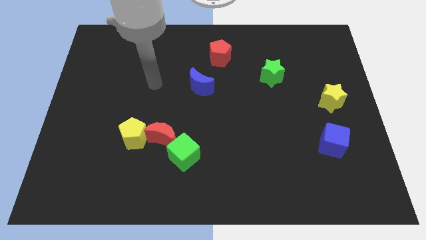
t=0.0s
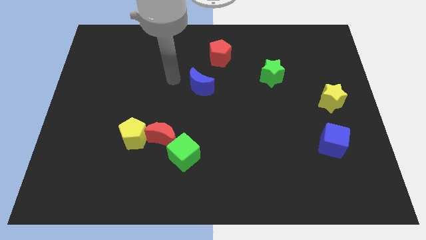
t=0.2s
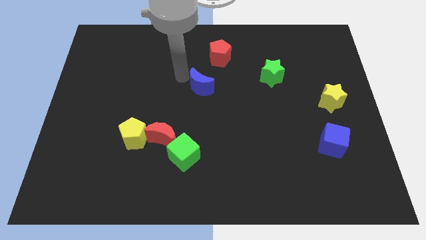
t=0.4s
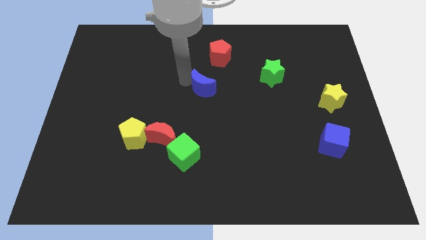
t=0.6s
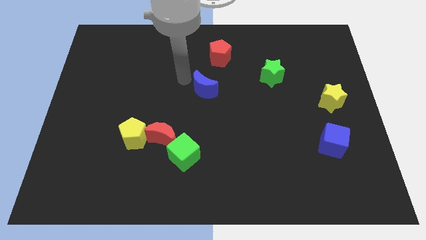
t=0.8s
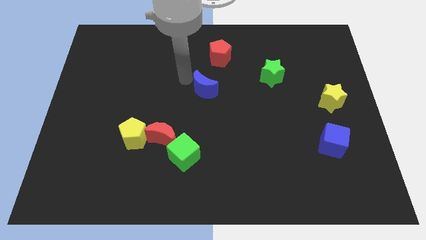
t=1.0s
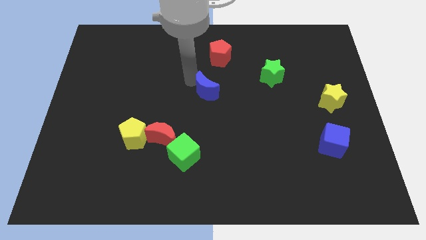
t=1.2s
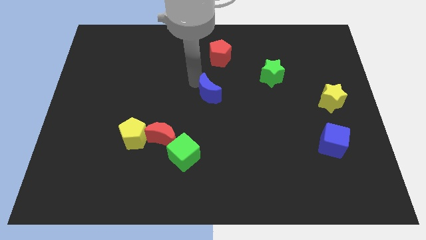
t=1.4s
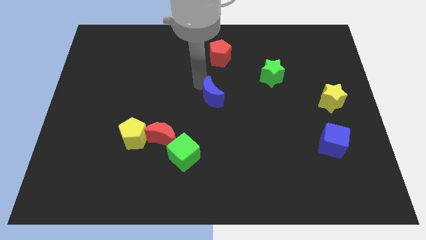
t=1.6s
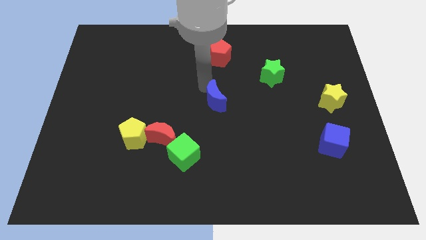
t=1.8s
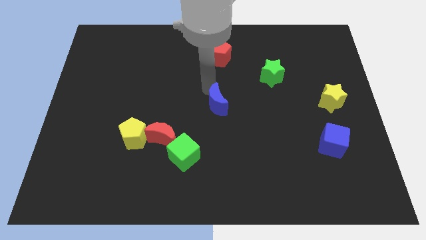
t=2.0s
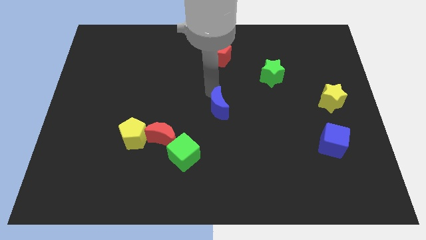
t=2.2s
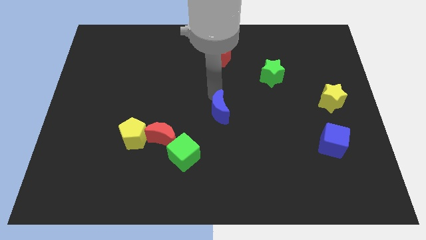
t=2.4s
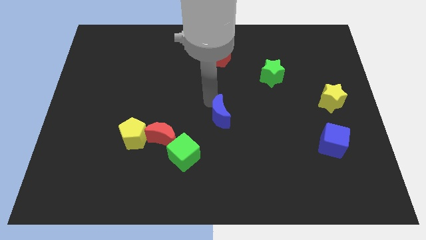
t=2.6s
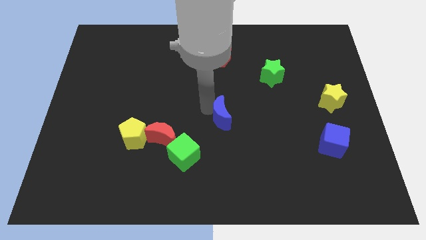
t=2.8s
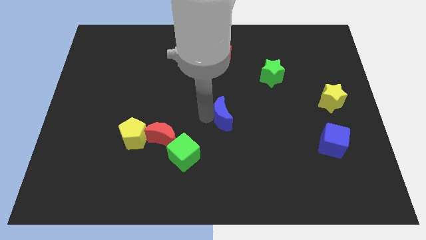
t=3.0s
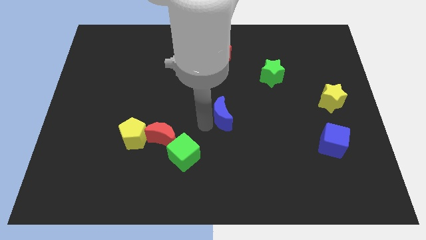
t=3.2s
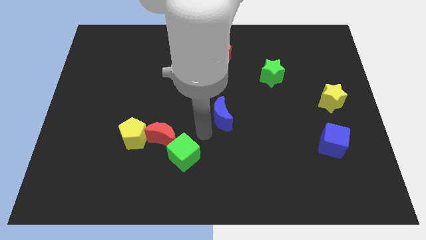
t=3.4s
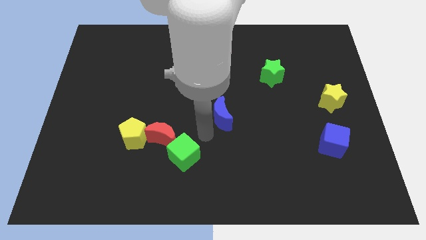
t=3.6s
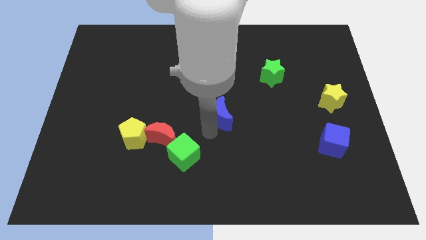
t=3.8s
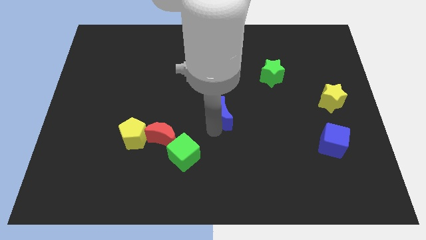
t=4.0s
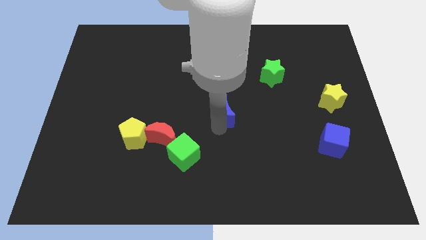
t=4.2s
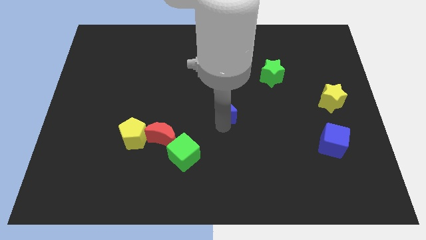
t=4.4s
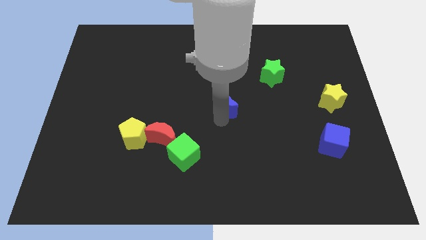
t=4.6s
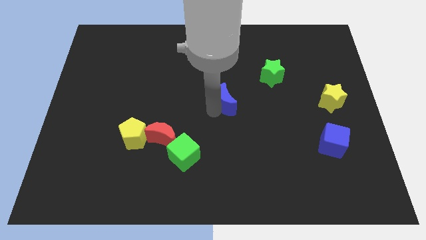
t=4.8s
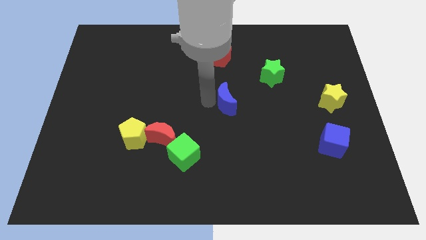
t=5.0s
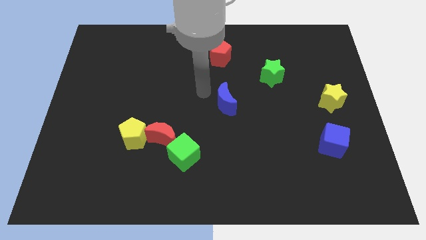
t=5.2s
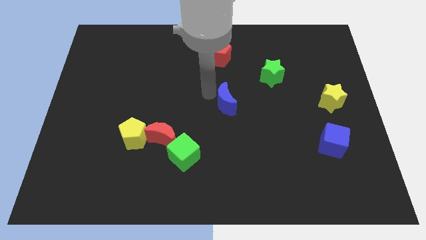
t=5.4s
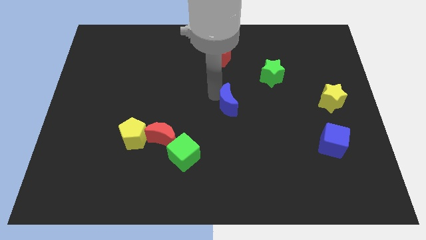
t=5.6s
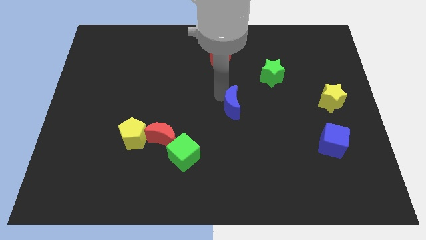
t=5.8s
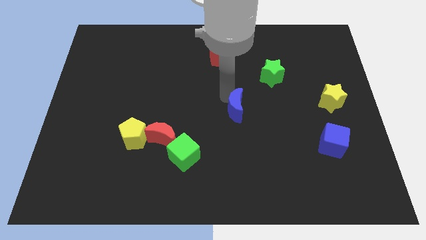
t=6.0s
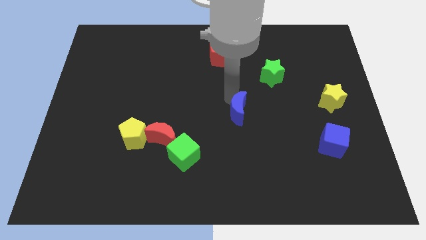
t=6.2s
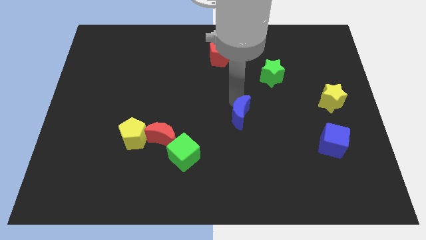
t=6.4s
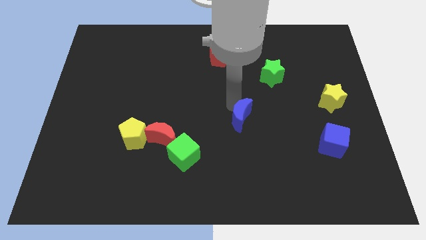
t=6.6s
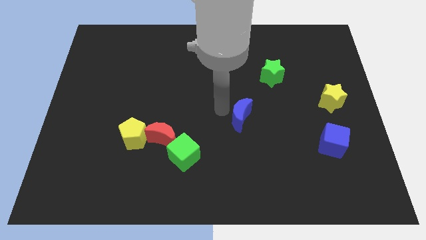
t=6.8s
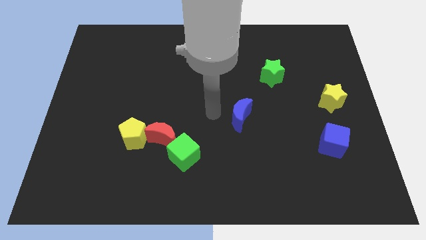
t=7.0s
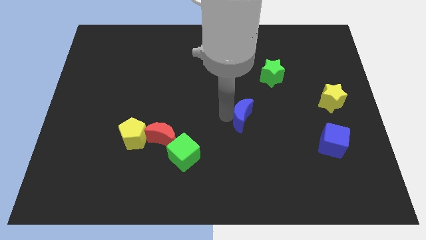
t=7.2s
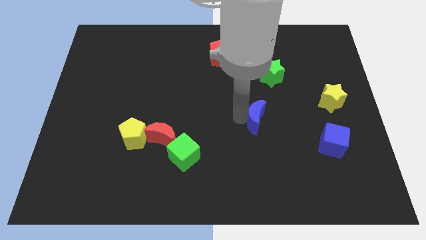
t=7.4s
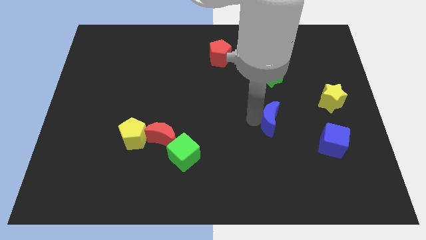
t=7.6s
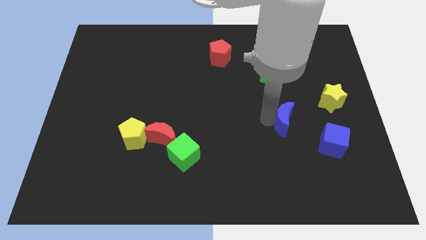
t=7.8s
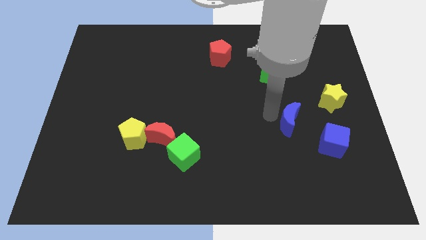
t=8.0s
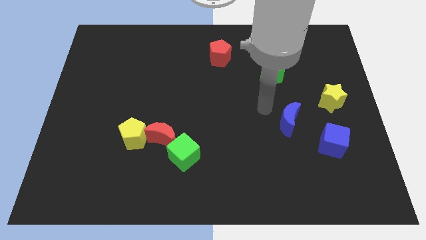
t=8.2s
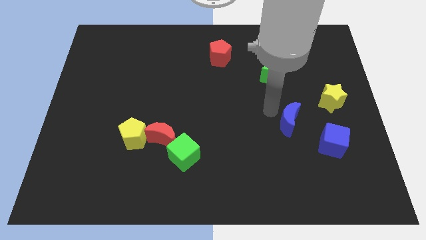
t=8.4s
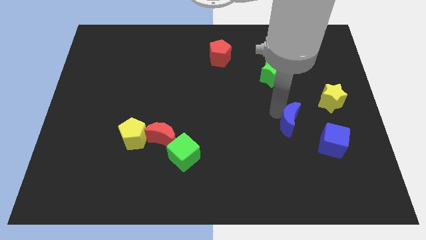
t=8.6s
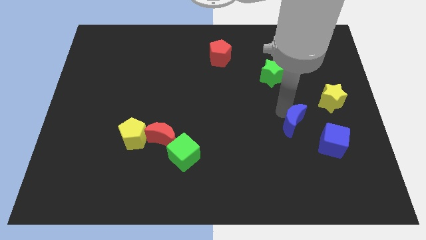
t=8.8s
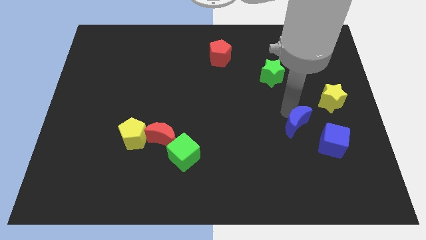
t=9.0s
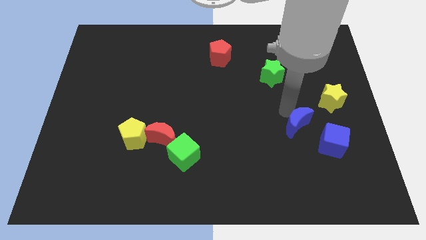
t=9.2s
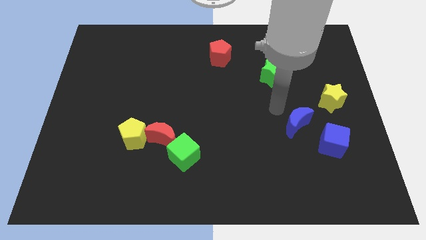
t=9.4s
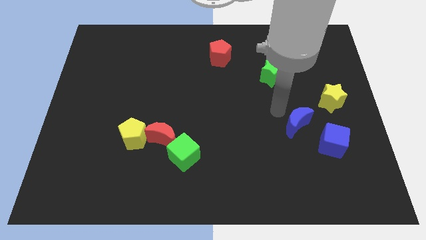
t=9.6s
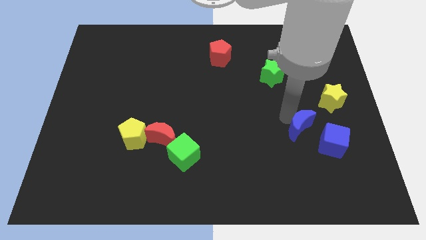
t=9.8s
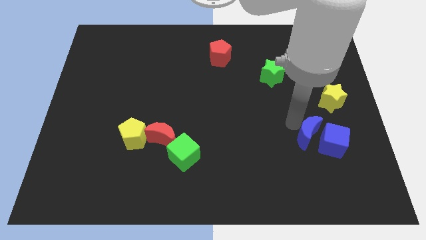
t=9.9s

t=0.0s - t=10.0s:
move the blue moon towards the blue cube

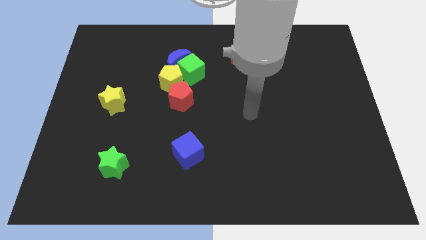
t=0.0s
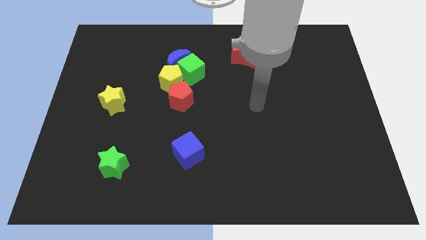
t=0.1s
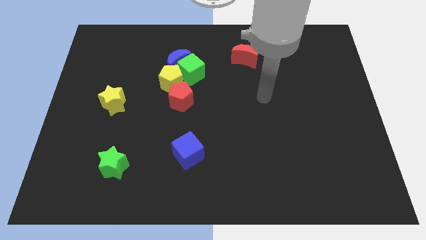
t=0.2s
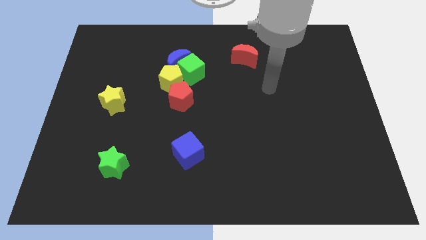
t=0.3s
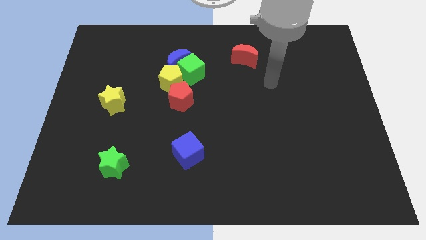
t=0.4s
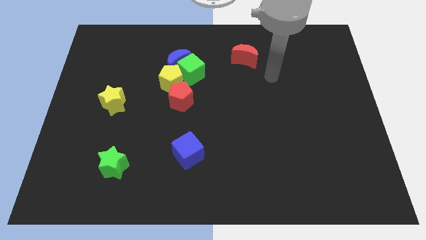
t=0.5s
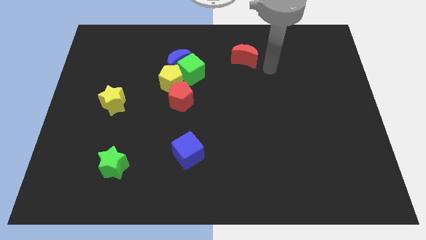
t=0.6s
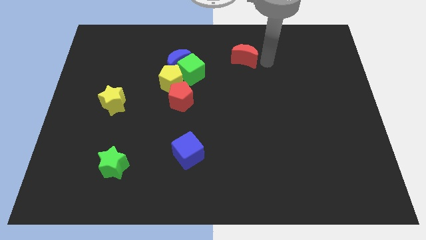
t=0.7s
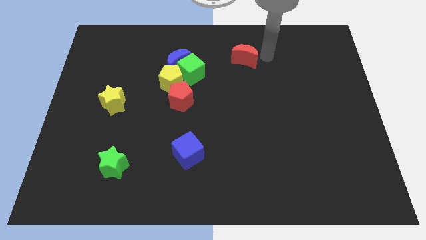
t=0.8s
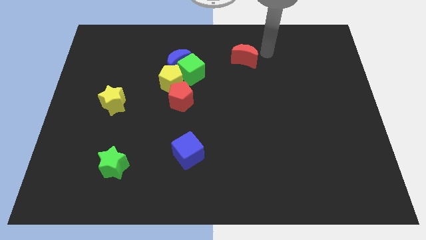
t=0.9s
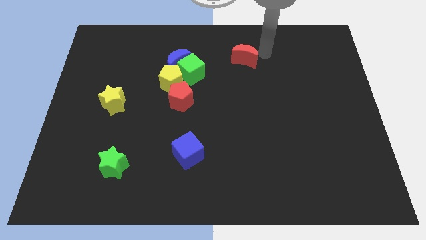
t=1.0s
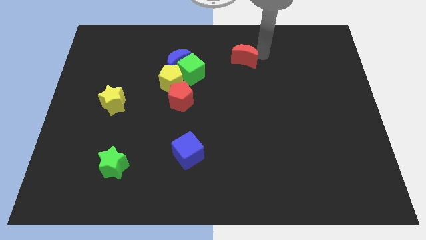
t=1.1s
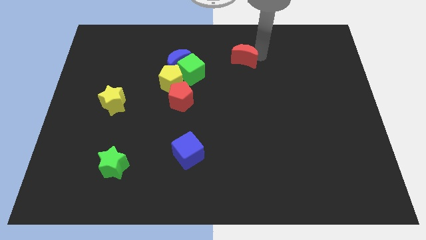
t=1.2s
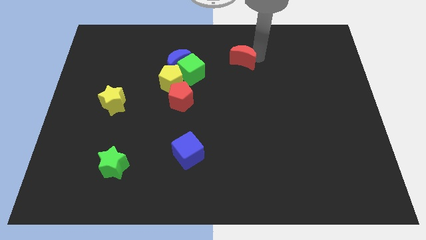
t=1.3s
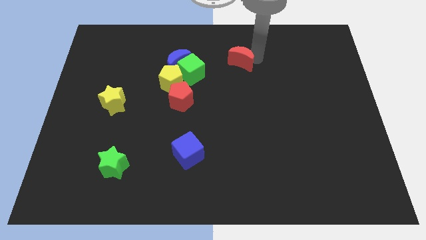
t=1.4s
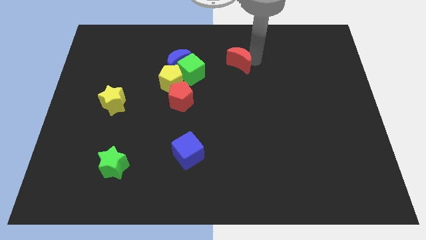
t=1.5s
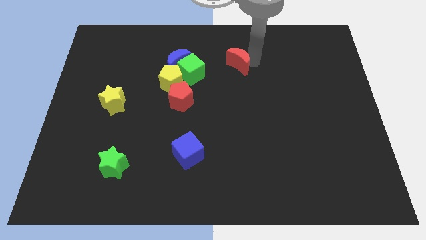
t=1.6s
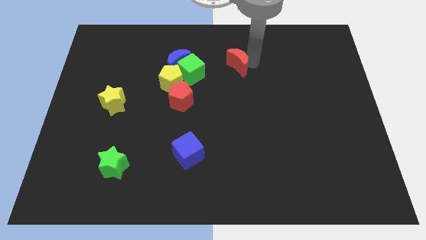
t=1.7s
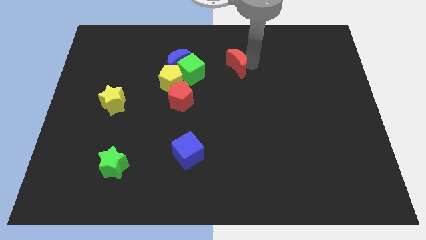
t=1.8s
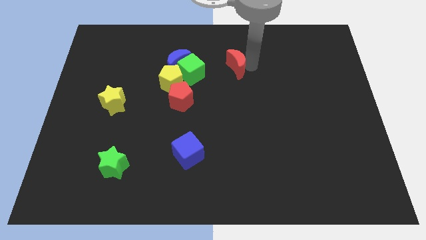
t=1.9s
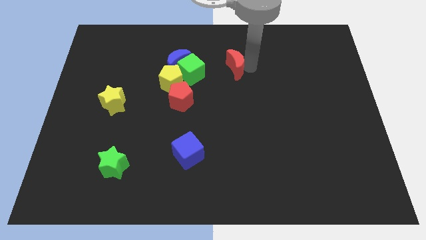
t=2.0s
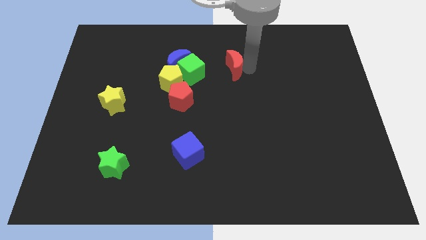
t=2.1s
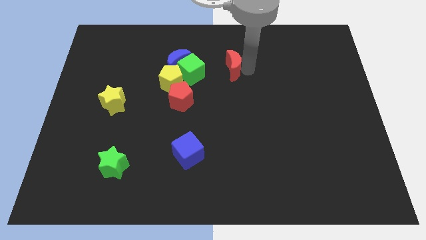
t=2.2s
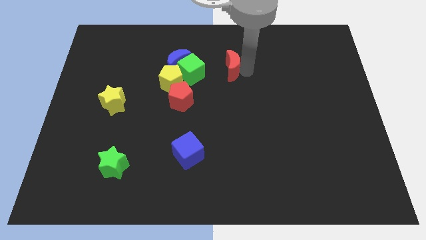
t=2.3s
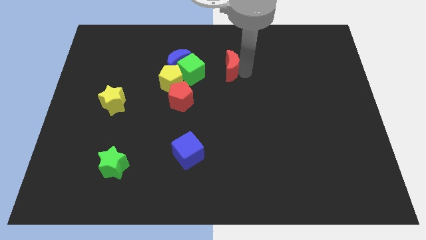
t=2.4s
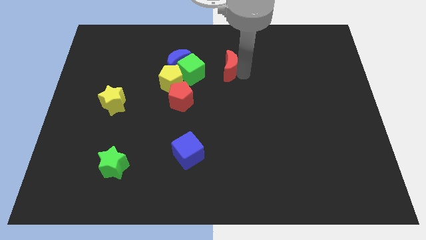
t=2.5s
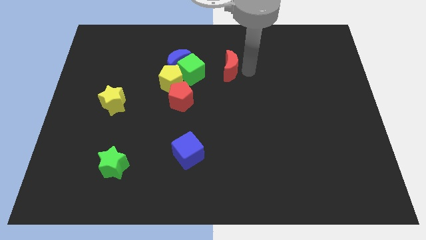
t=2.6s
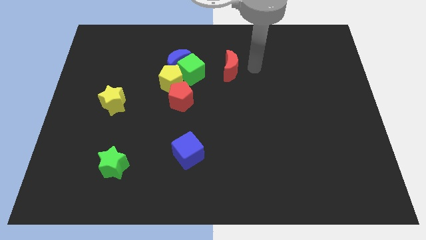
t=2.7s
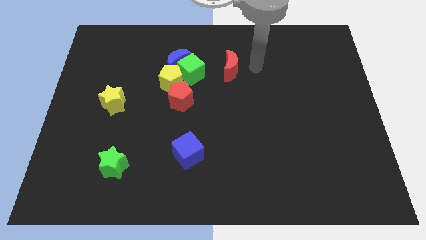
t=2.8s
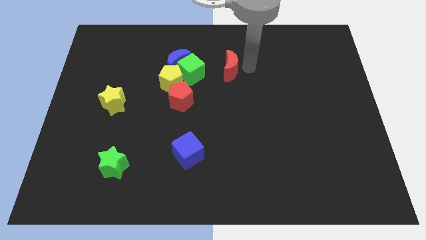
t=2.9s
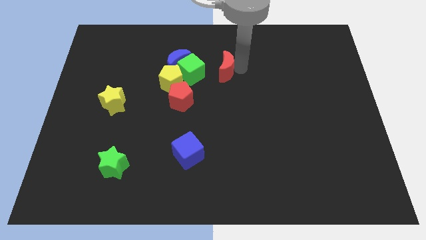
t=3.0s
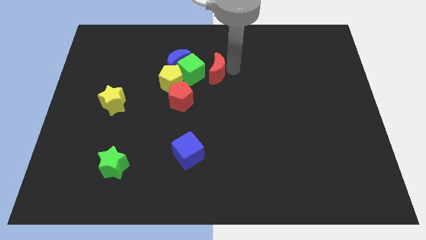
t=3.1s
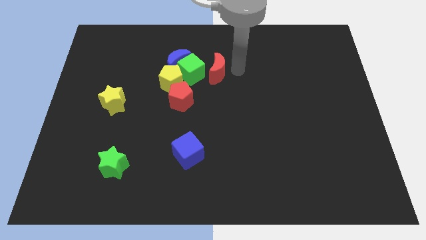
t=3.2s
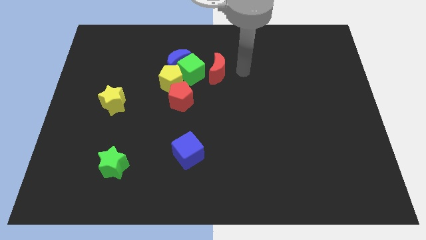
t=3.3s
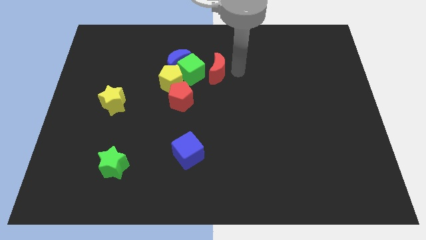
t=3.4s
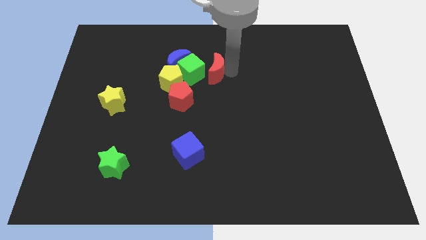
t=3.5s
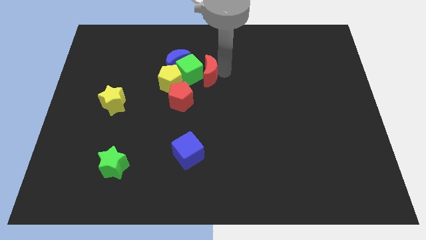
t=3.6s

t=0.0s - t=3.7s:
push the red moon towards the green cube
